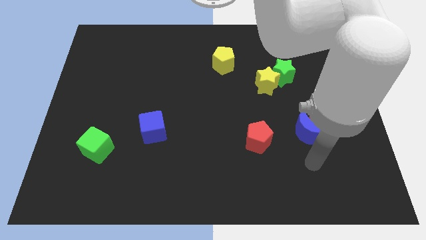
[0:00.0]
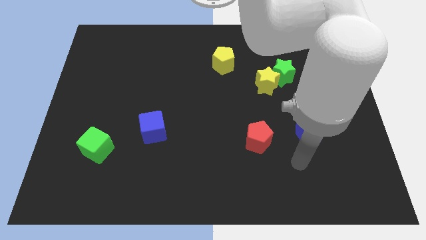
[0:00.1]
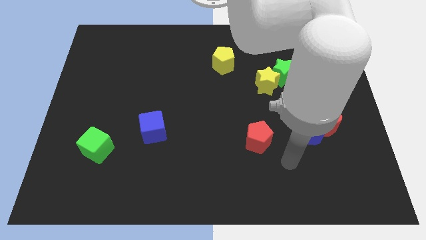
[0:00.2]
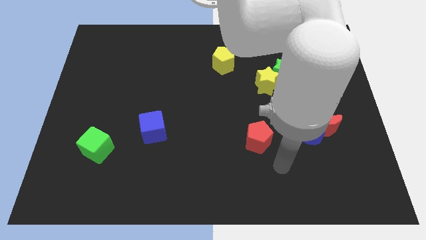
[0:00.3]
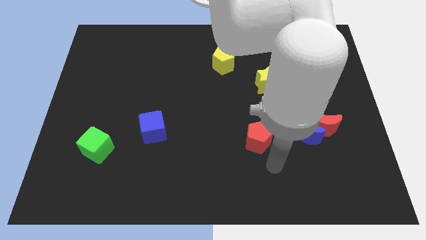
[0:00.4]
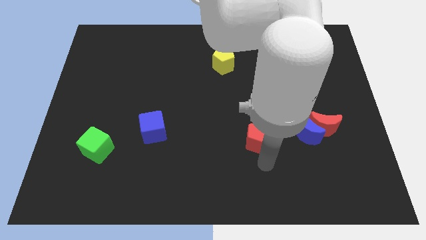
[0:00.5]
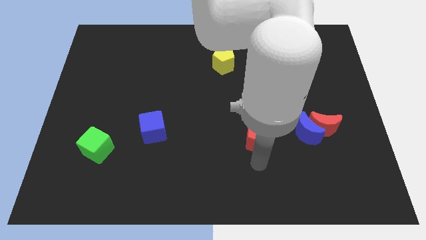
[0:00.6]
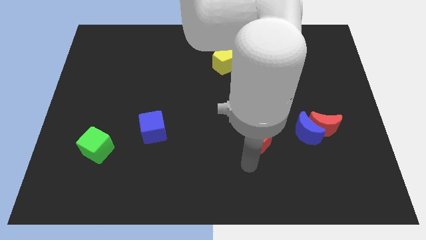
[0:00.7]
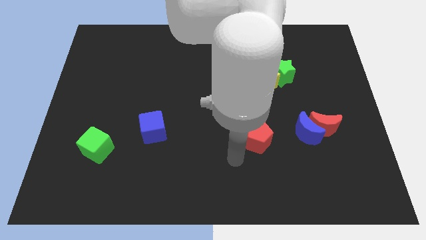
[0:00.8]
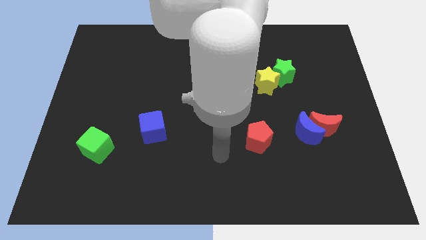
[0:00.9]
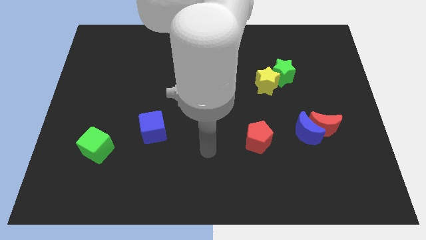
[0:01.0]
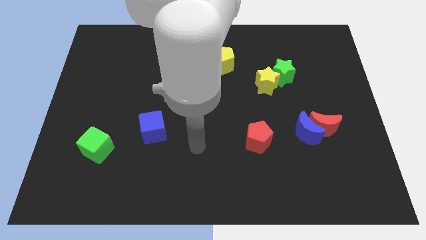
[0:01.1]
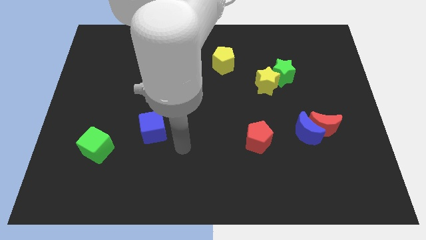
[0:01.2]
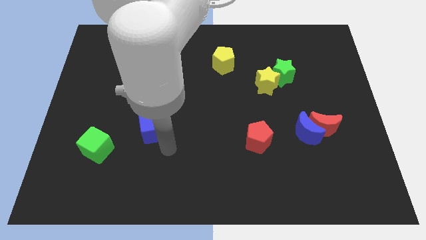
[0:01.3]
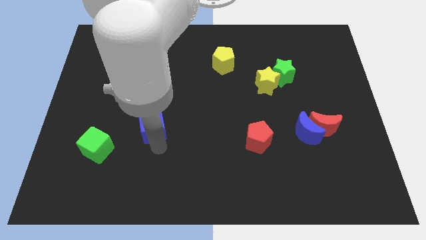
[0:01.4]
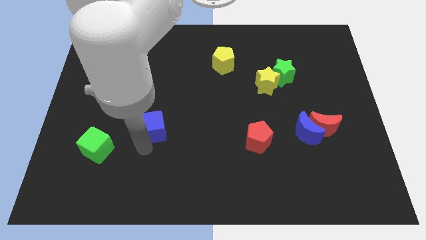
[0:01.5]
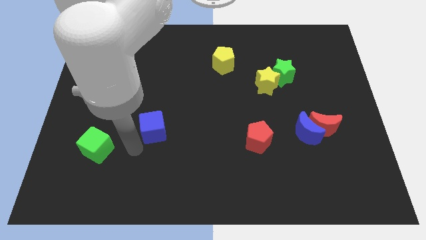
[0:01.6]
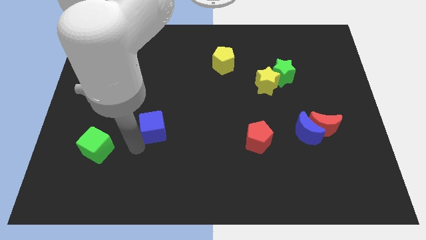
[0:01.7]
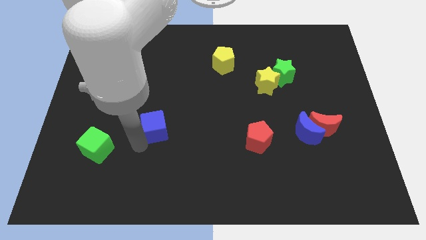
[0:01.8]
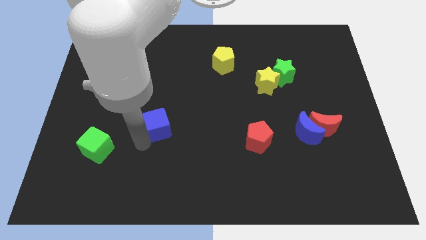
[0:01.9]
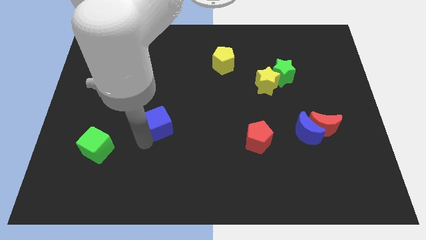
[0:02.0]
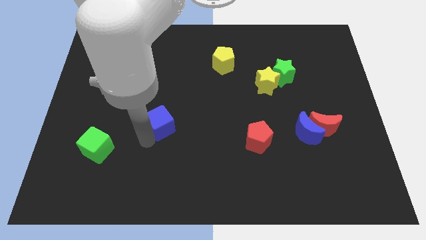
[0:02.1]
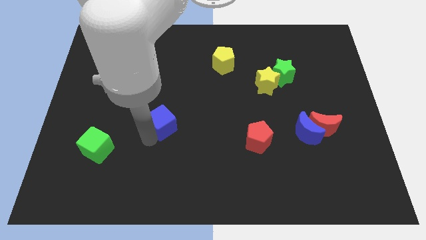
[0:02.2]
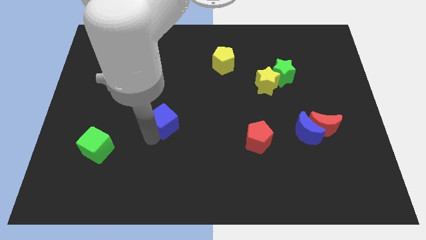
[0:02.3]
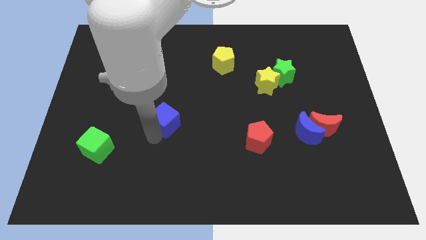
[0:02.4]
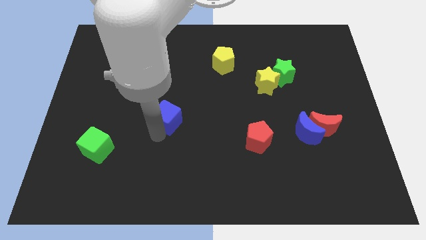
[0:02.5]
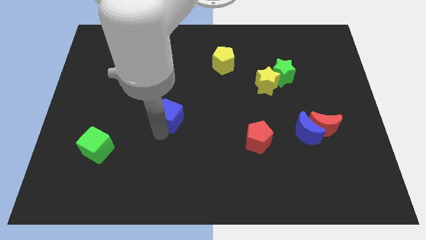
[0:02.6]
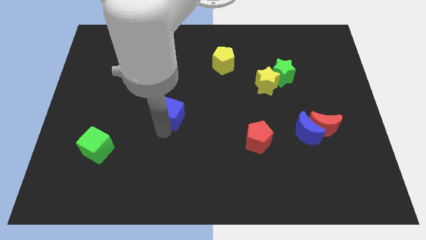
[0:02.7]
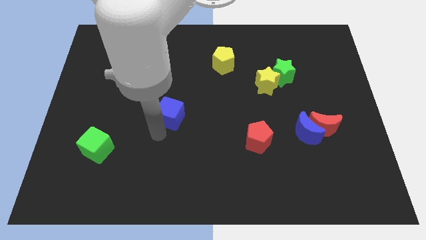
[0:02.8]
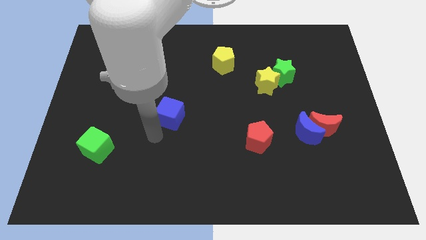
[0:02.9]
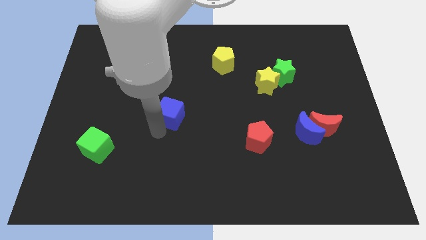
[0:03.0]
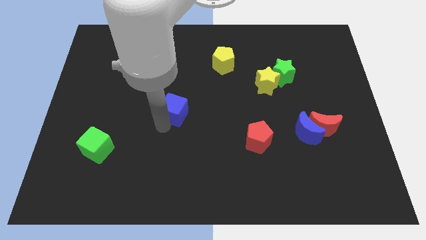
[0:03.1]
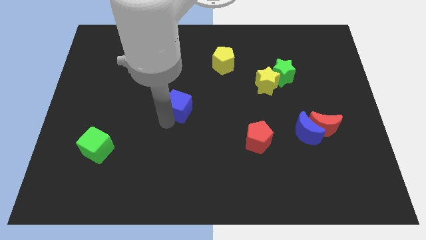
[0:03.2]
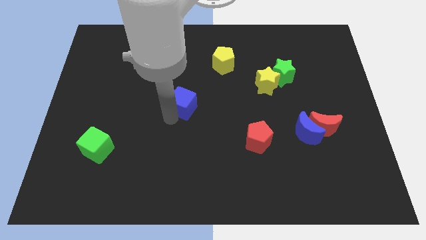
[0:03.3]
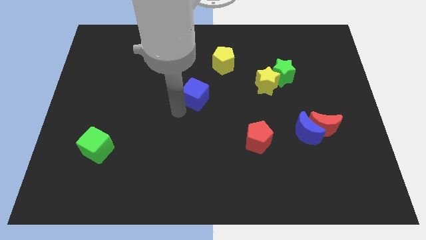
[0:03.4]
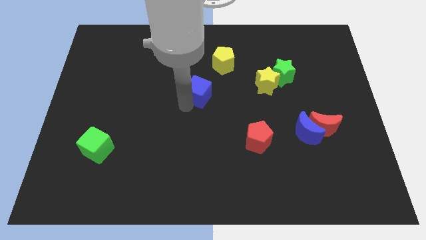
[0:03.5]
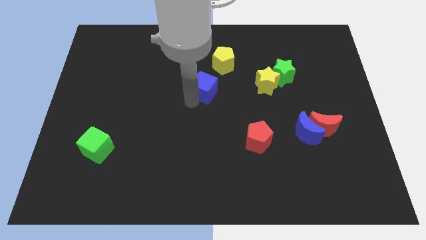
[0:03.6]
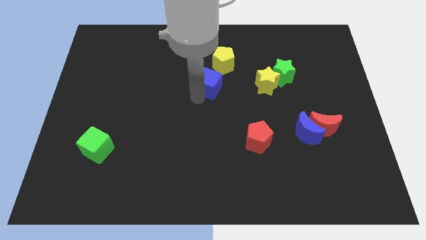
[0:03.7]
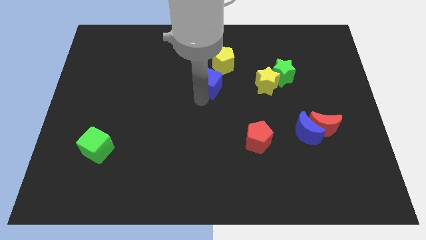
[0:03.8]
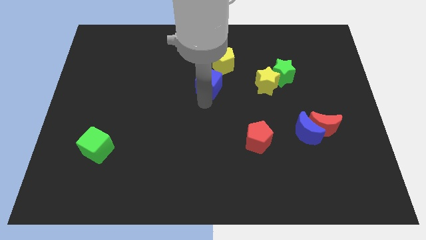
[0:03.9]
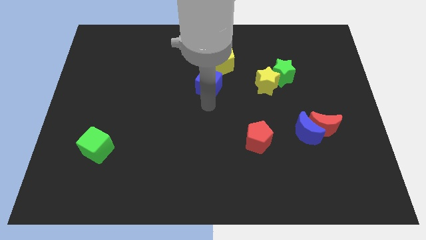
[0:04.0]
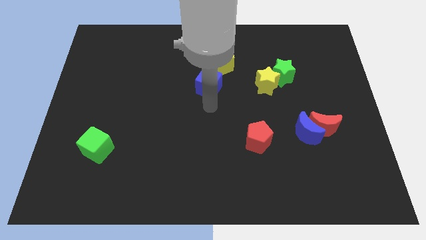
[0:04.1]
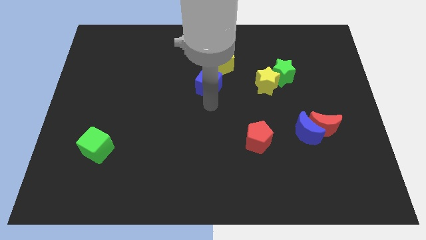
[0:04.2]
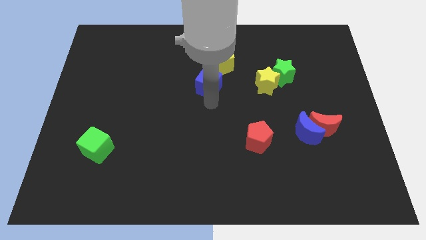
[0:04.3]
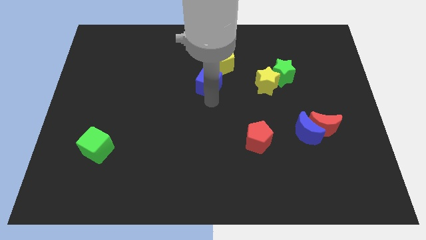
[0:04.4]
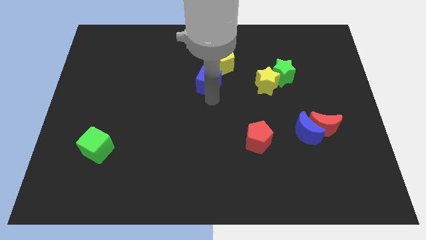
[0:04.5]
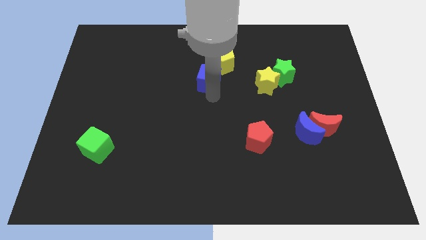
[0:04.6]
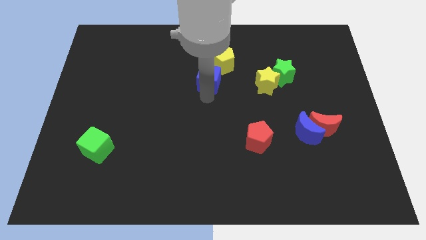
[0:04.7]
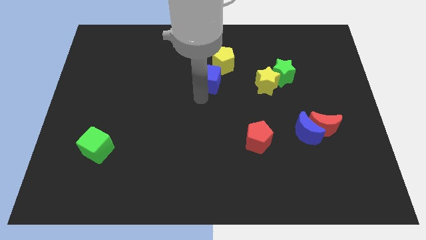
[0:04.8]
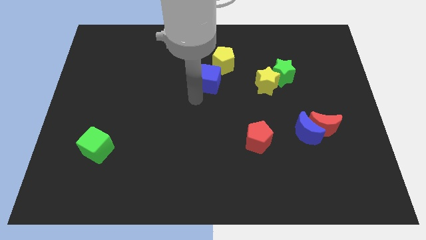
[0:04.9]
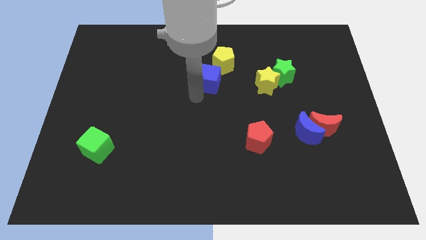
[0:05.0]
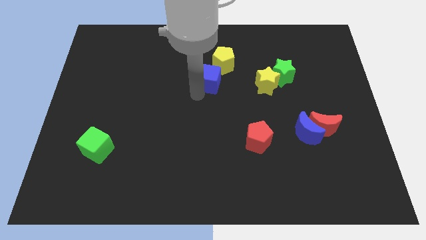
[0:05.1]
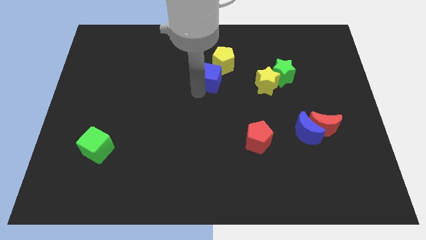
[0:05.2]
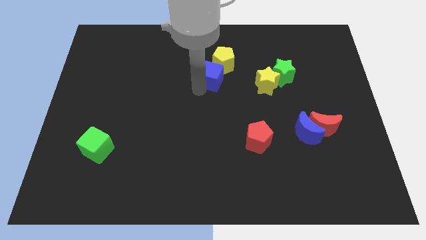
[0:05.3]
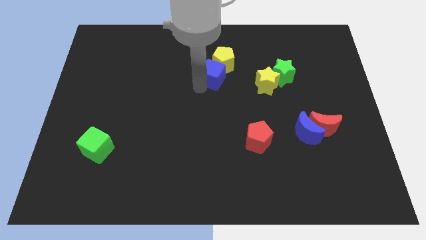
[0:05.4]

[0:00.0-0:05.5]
move the blue cube to the yellow pentagon
